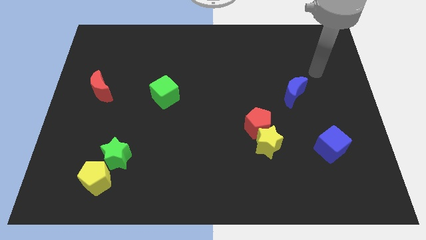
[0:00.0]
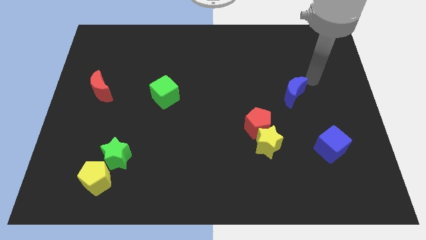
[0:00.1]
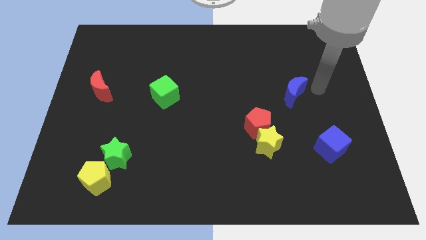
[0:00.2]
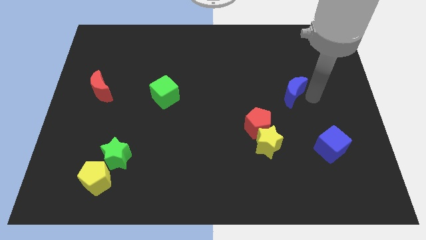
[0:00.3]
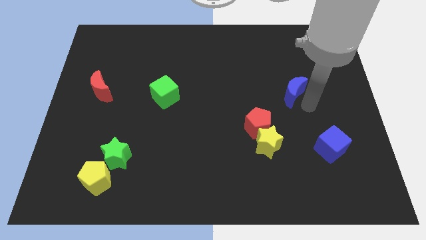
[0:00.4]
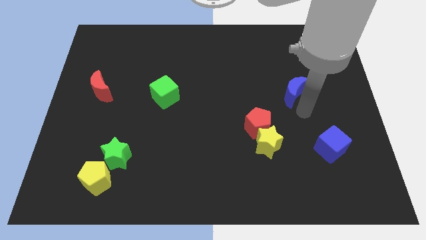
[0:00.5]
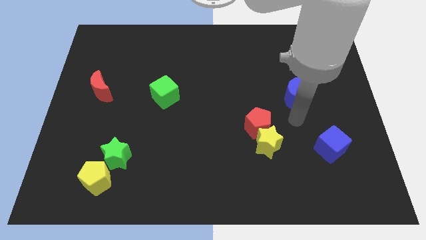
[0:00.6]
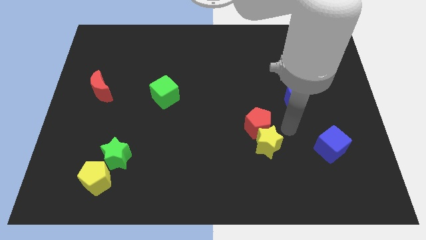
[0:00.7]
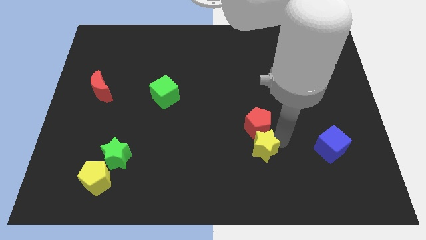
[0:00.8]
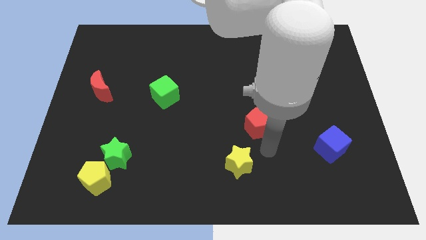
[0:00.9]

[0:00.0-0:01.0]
move the red pentagon away from the yellow star

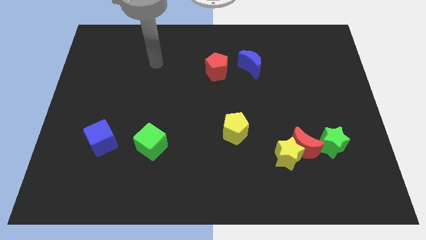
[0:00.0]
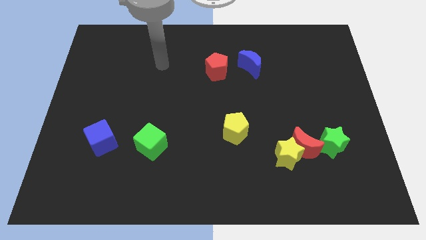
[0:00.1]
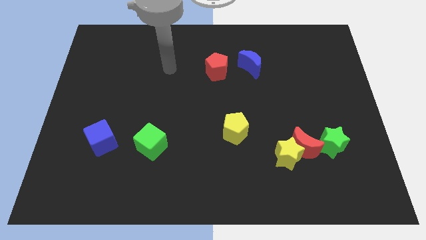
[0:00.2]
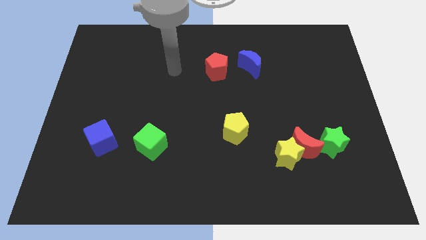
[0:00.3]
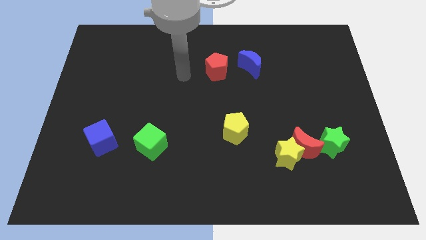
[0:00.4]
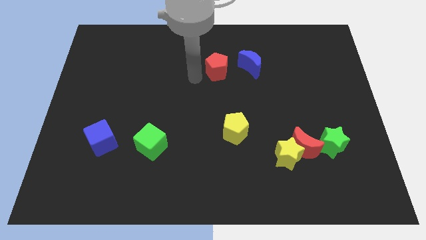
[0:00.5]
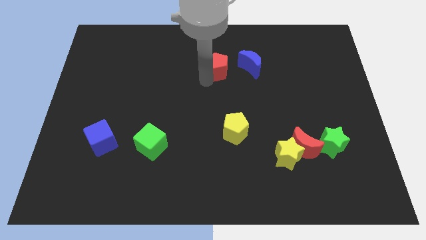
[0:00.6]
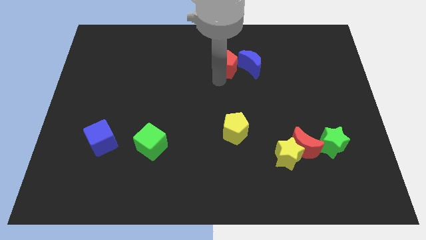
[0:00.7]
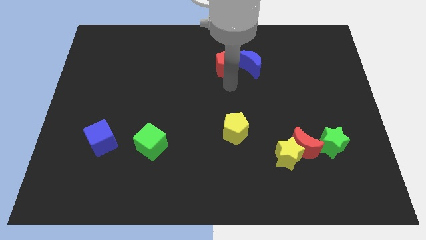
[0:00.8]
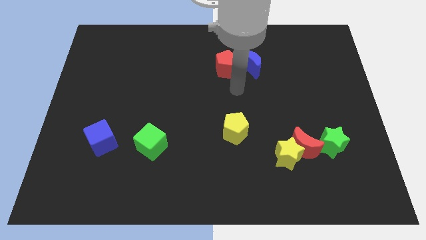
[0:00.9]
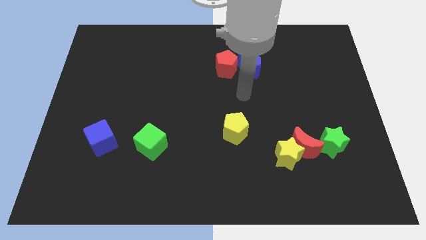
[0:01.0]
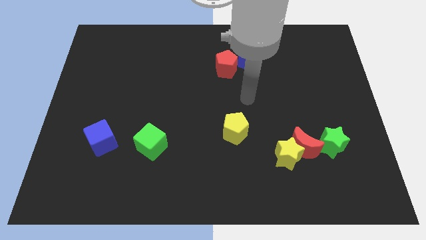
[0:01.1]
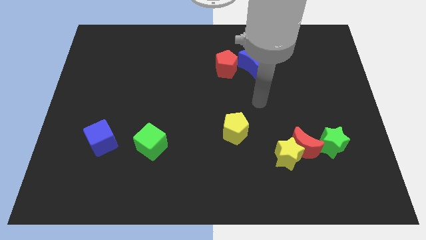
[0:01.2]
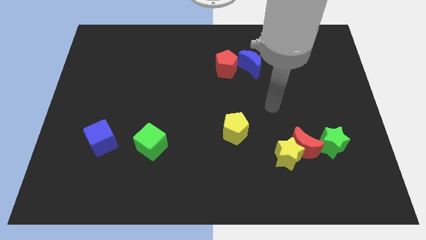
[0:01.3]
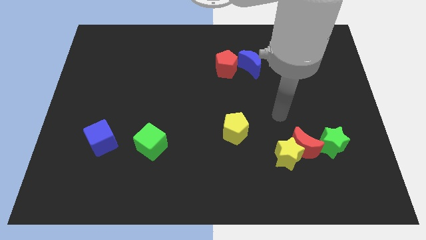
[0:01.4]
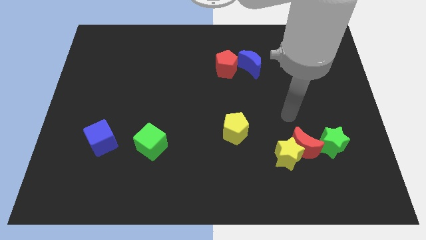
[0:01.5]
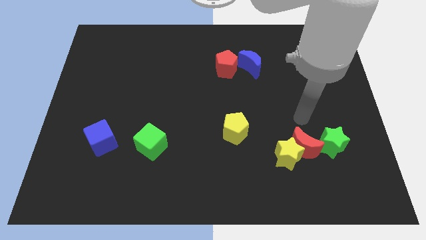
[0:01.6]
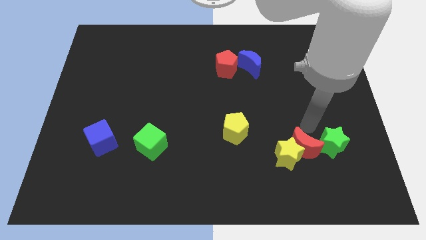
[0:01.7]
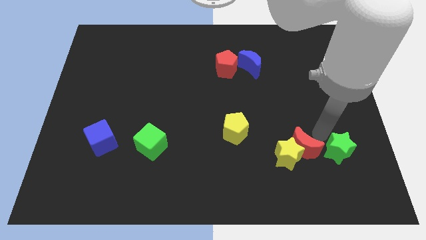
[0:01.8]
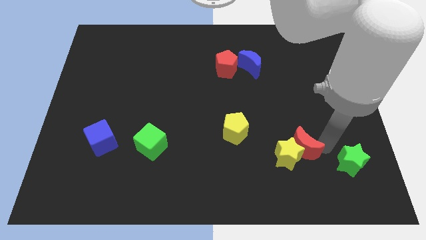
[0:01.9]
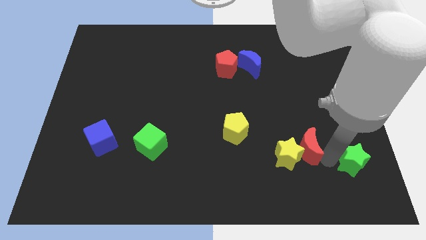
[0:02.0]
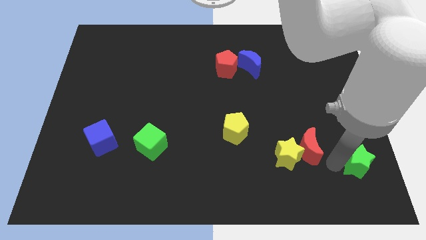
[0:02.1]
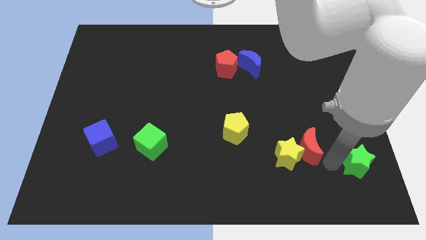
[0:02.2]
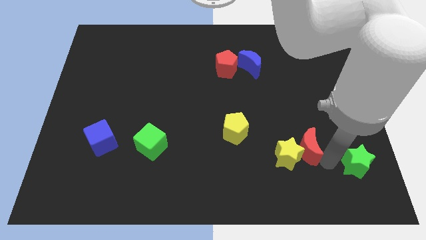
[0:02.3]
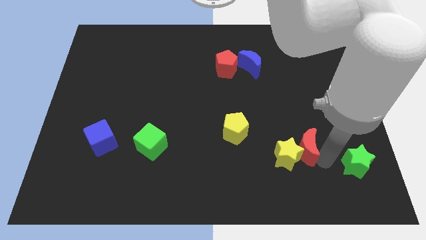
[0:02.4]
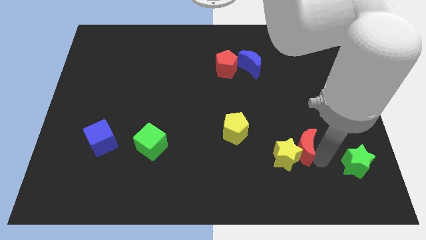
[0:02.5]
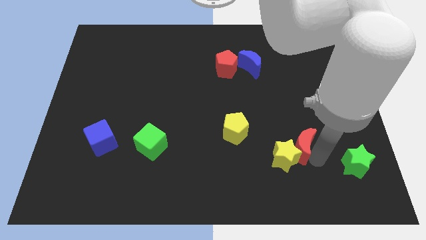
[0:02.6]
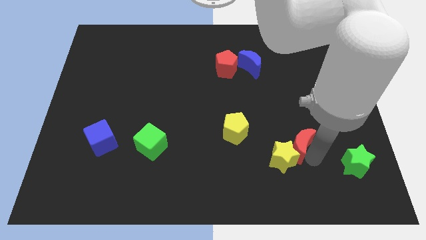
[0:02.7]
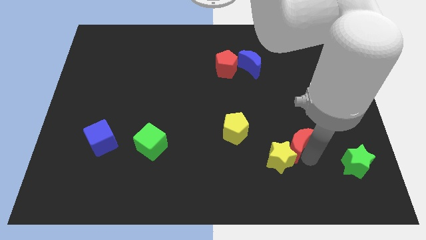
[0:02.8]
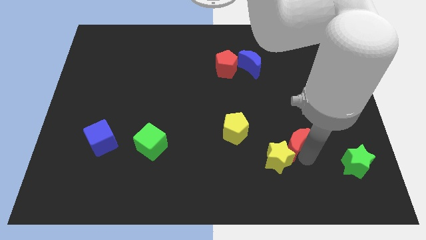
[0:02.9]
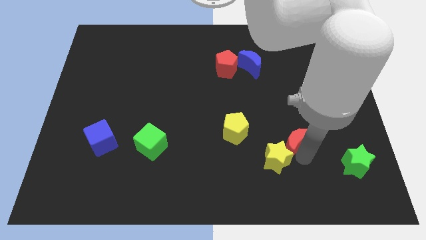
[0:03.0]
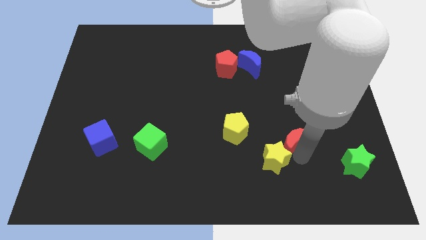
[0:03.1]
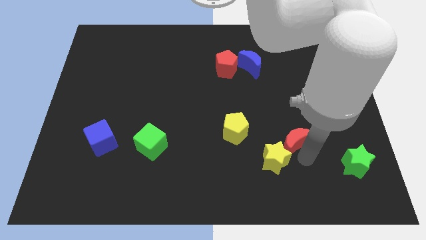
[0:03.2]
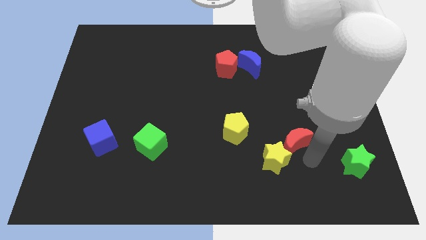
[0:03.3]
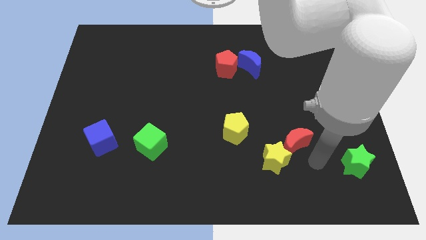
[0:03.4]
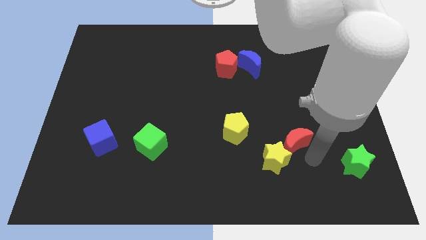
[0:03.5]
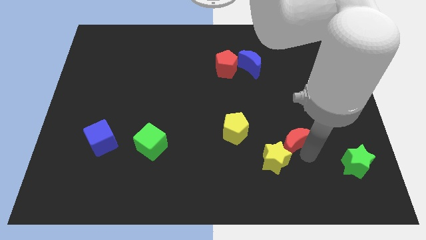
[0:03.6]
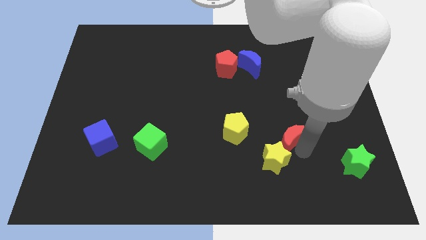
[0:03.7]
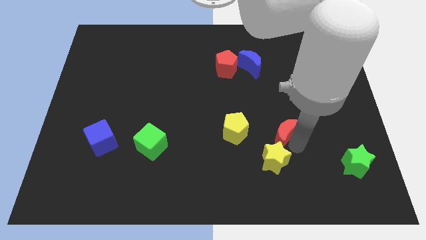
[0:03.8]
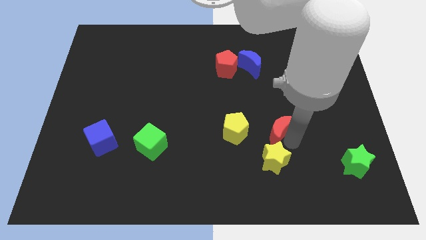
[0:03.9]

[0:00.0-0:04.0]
separate the red moon from the yellow star and green star

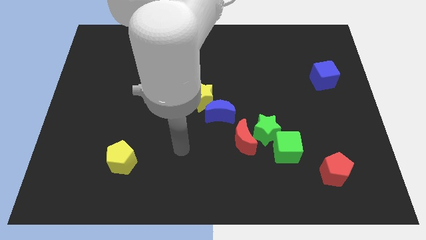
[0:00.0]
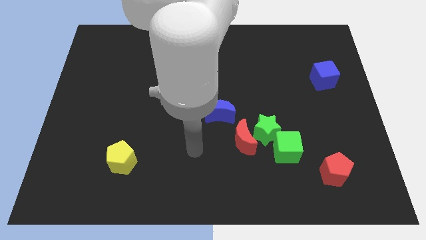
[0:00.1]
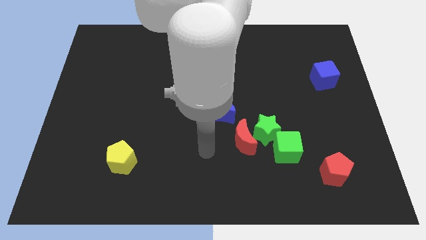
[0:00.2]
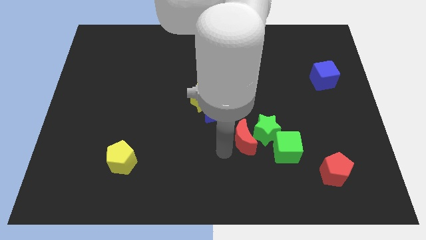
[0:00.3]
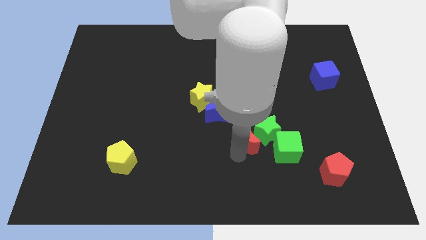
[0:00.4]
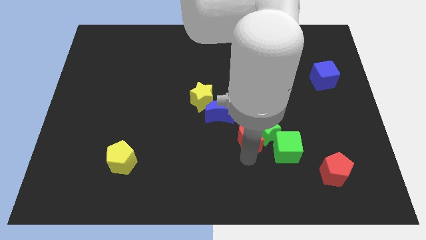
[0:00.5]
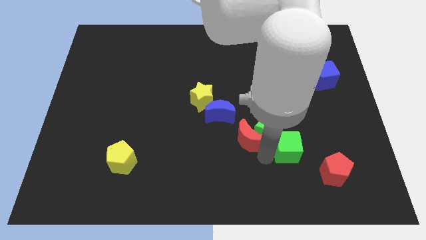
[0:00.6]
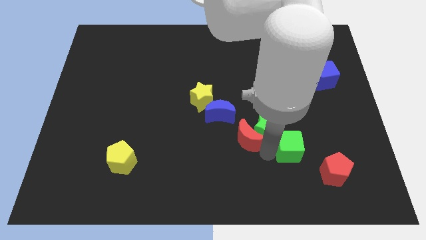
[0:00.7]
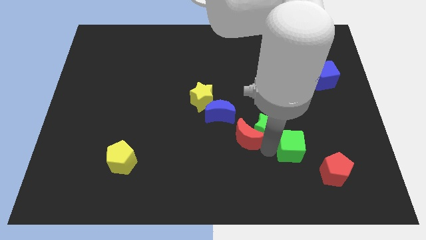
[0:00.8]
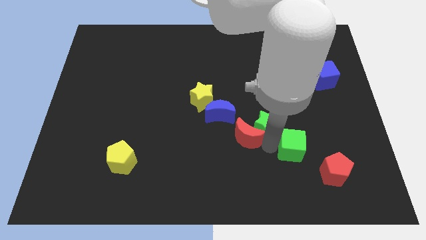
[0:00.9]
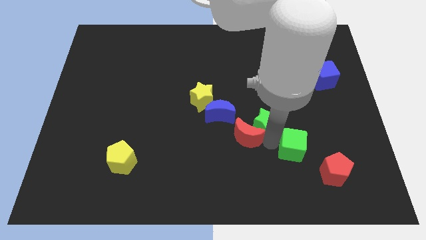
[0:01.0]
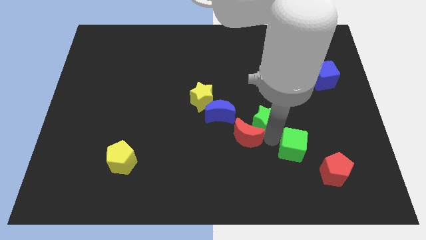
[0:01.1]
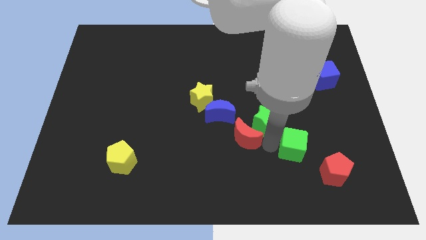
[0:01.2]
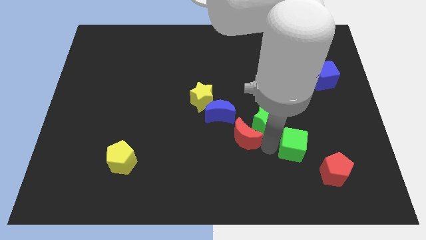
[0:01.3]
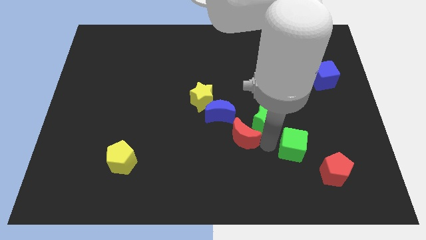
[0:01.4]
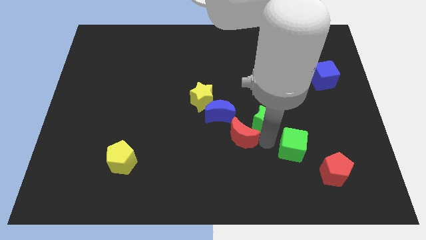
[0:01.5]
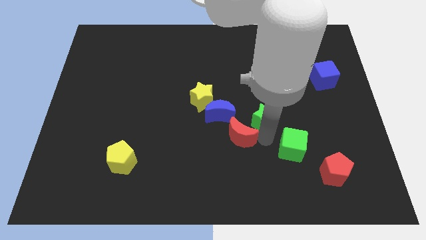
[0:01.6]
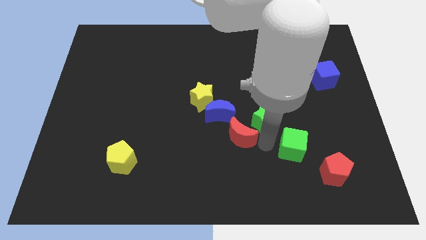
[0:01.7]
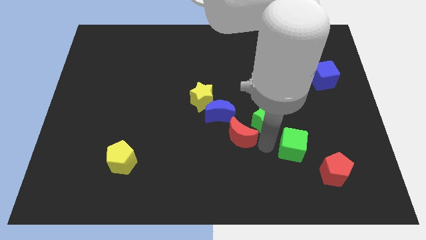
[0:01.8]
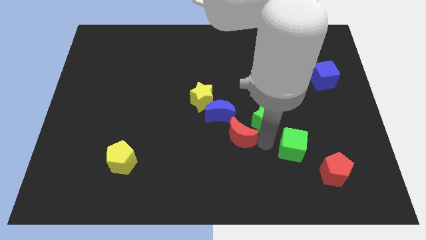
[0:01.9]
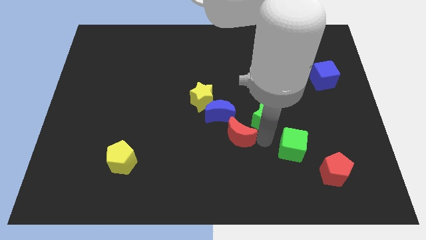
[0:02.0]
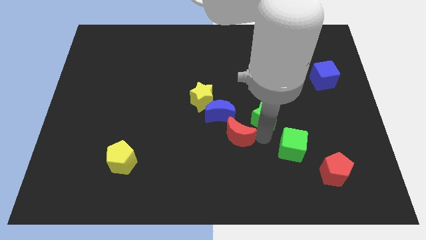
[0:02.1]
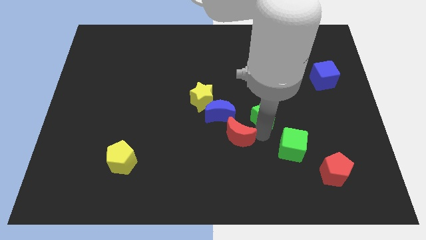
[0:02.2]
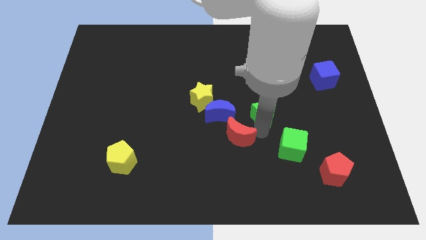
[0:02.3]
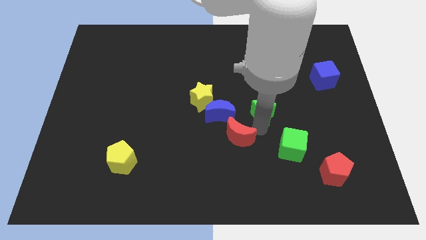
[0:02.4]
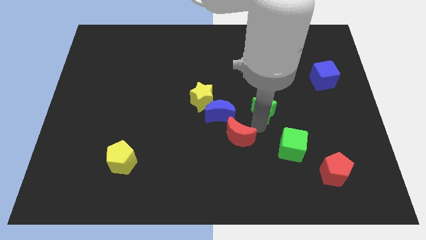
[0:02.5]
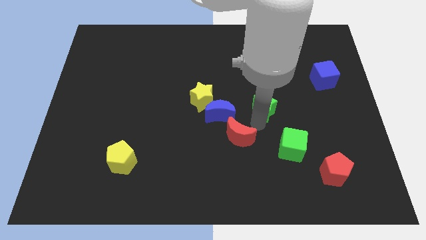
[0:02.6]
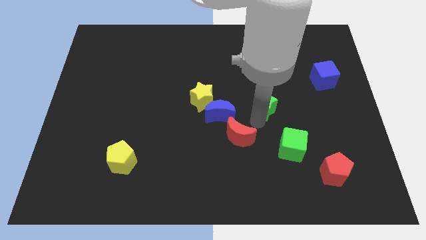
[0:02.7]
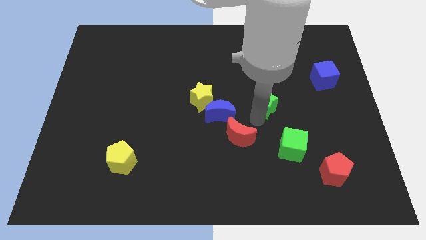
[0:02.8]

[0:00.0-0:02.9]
separate the green star from the red moon and green cube

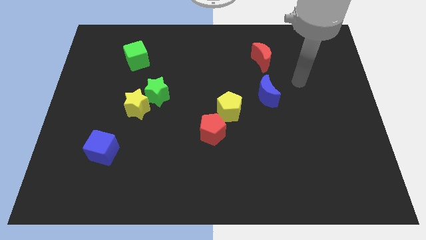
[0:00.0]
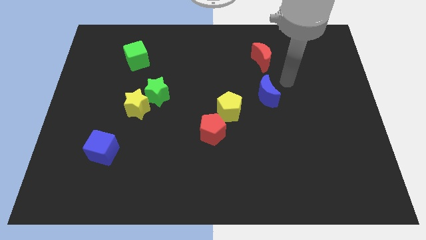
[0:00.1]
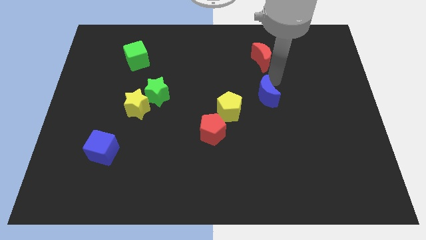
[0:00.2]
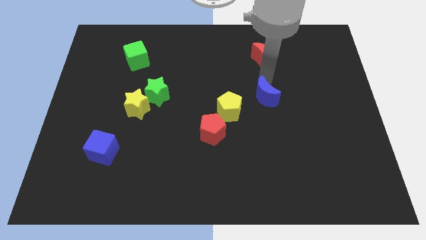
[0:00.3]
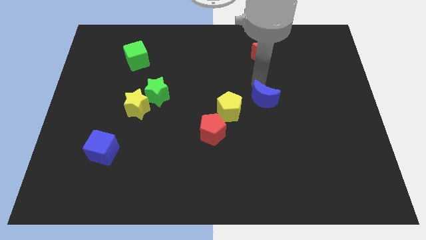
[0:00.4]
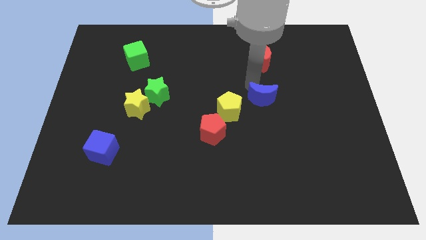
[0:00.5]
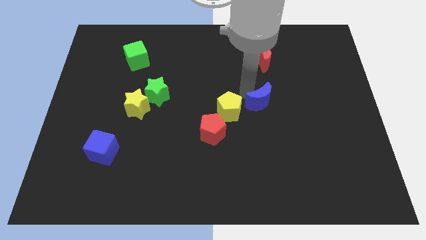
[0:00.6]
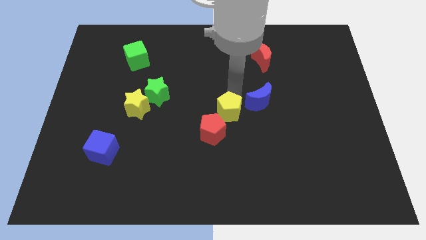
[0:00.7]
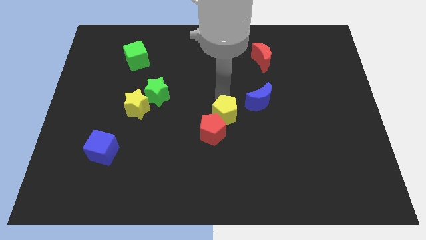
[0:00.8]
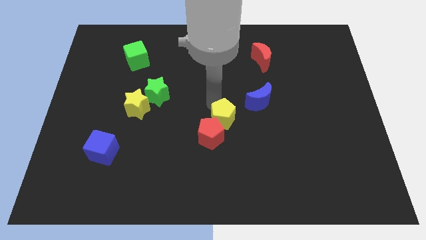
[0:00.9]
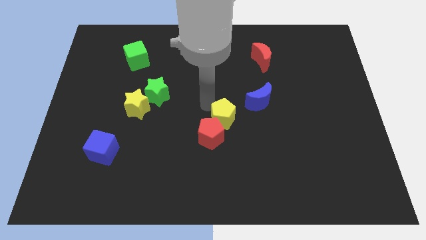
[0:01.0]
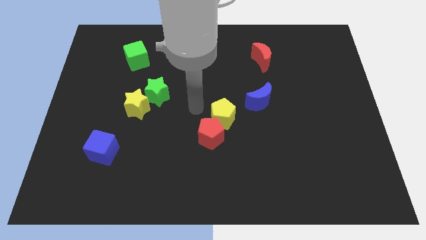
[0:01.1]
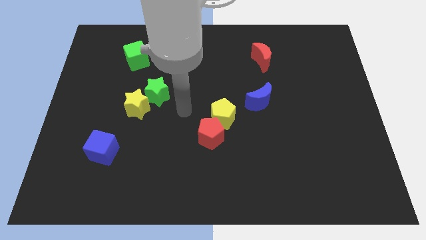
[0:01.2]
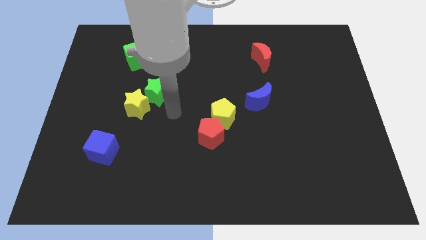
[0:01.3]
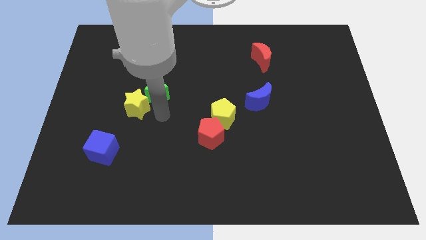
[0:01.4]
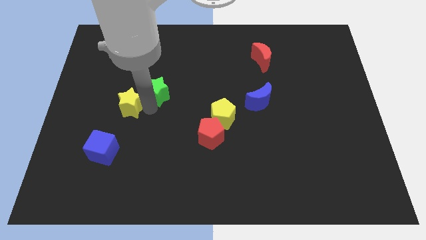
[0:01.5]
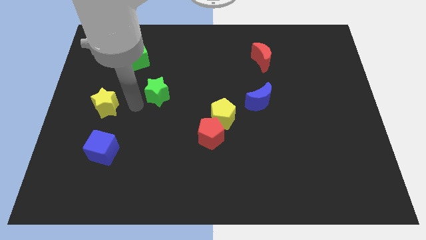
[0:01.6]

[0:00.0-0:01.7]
move the green star away from the yellow star

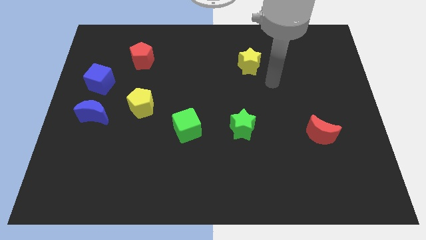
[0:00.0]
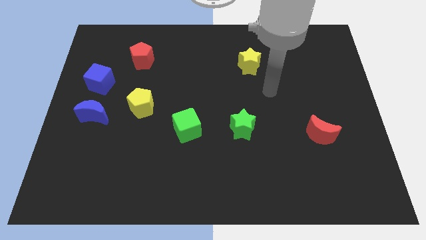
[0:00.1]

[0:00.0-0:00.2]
separate the blue moon from the blue cube
